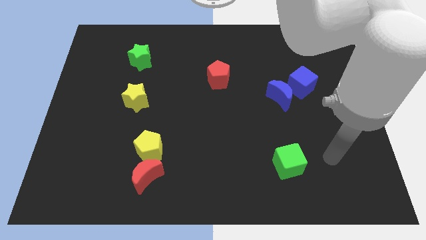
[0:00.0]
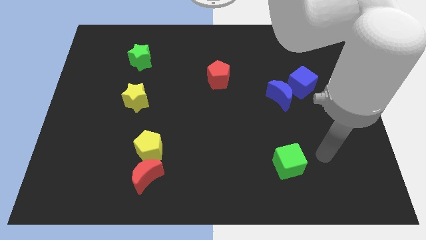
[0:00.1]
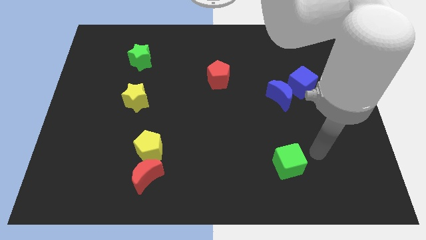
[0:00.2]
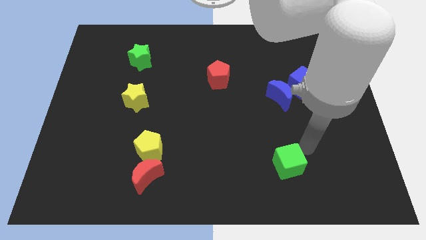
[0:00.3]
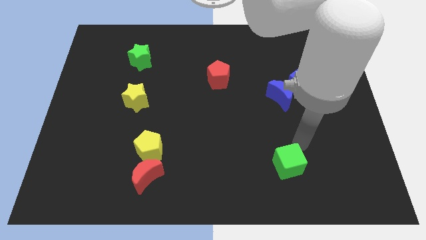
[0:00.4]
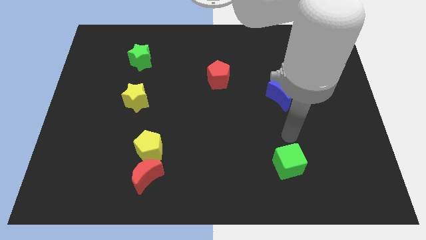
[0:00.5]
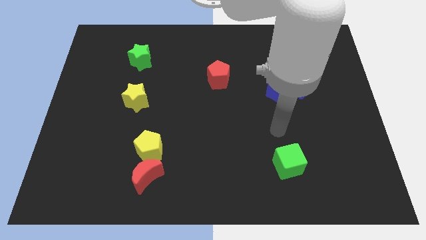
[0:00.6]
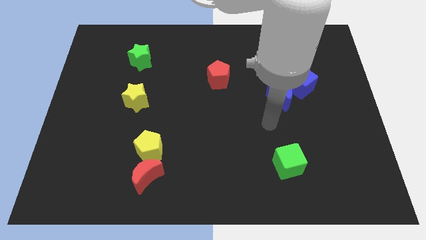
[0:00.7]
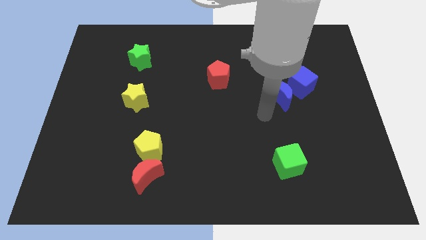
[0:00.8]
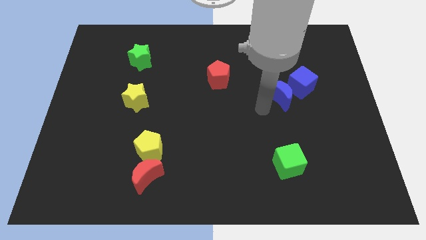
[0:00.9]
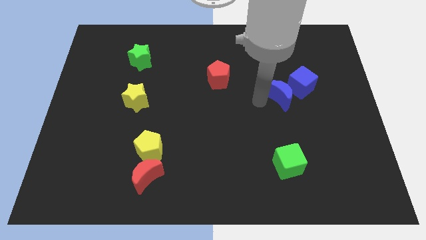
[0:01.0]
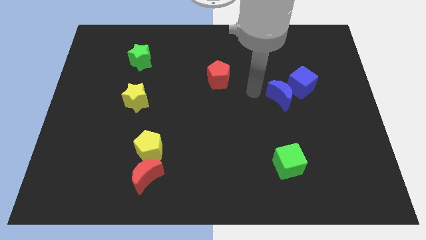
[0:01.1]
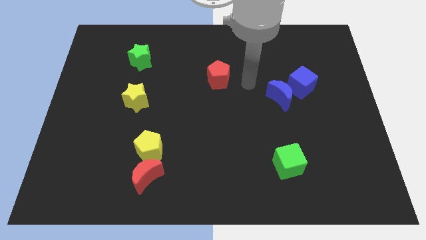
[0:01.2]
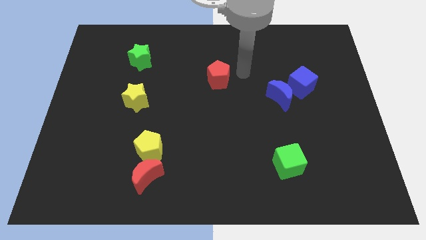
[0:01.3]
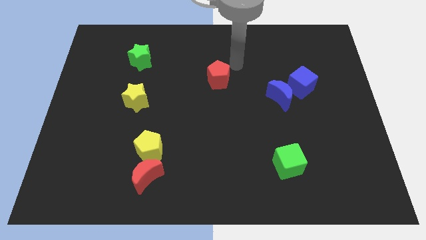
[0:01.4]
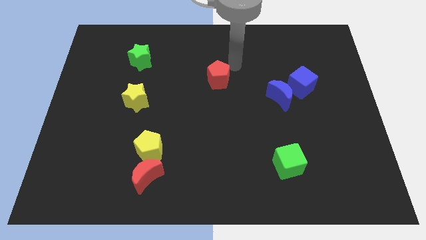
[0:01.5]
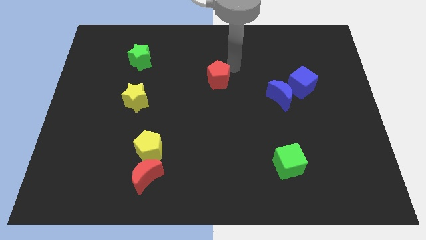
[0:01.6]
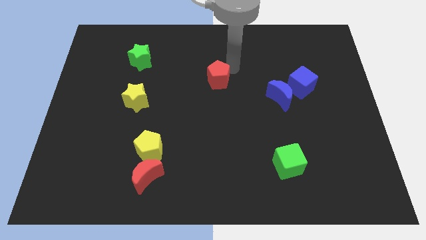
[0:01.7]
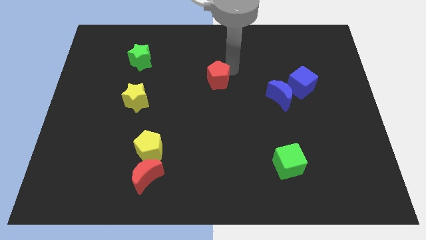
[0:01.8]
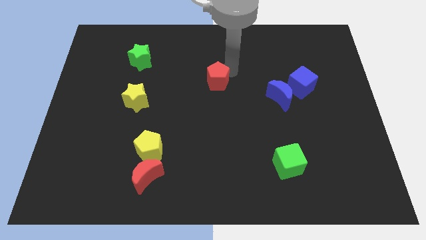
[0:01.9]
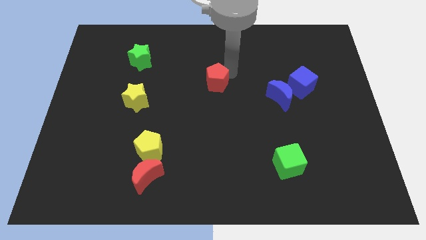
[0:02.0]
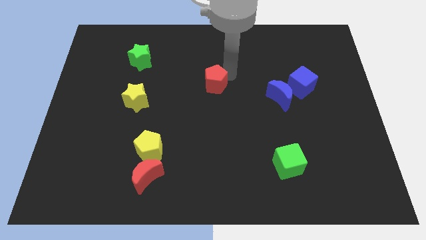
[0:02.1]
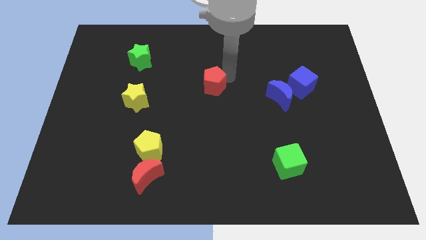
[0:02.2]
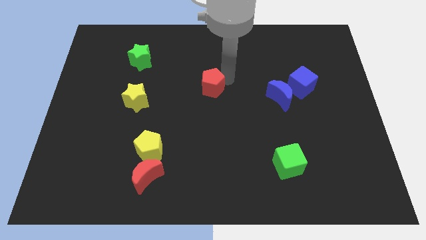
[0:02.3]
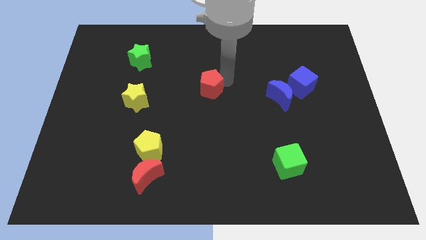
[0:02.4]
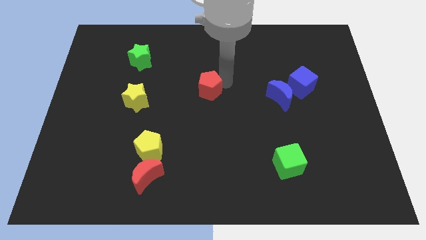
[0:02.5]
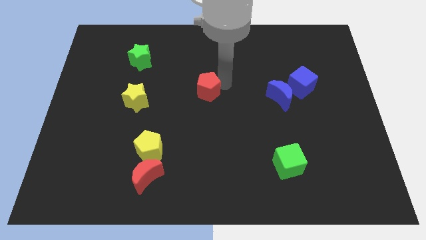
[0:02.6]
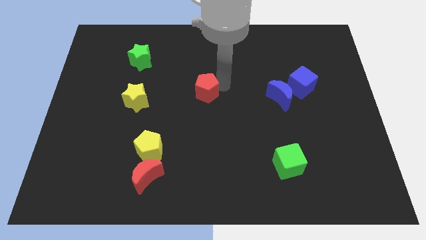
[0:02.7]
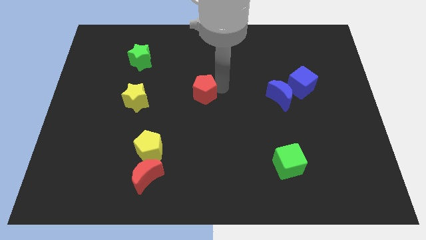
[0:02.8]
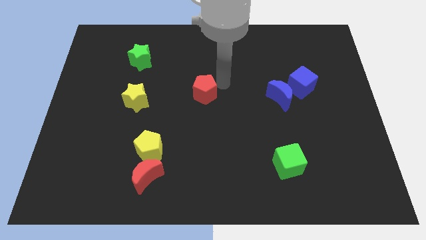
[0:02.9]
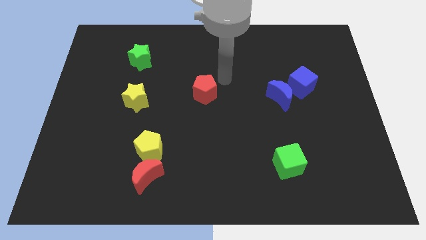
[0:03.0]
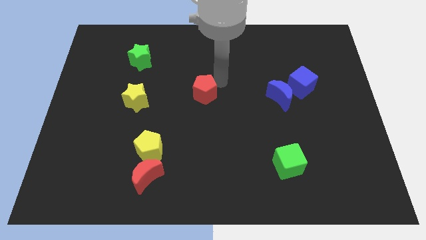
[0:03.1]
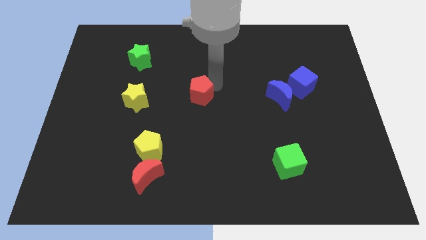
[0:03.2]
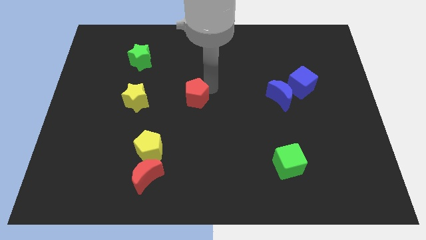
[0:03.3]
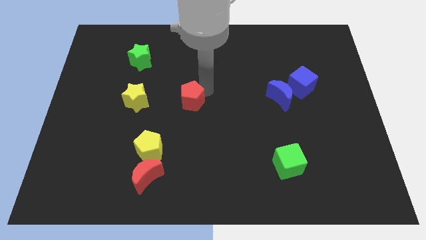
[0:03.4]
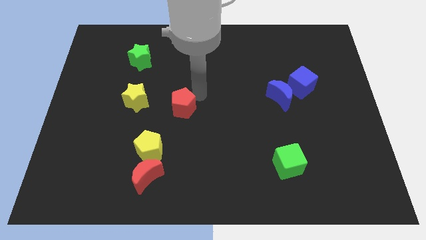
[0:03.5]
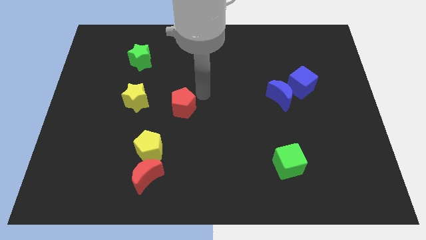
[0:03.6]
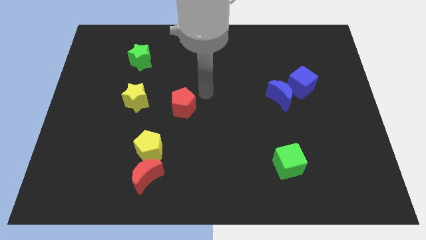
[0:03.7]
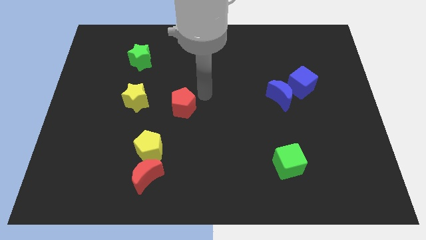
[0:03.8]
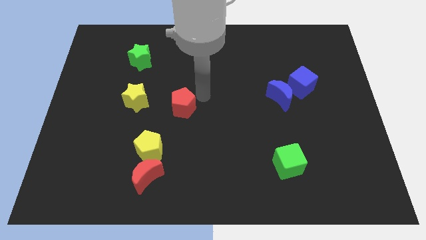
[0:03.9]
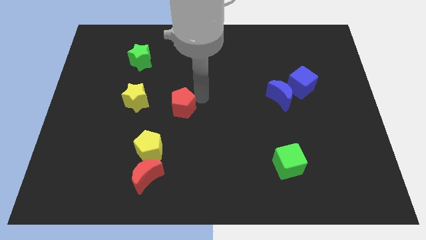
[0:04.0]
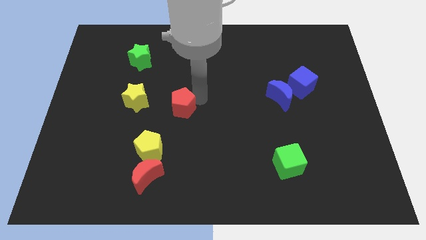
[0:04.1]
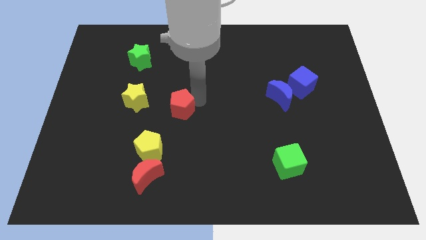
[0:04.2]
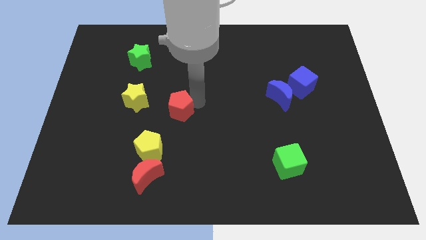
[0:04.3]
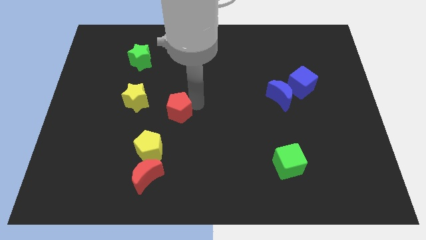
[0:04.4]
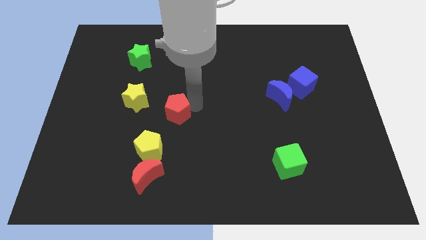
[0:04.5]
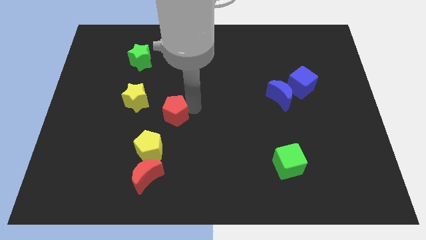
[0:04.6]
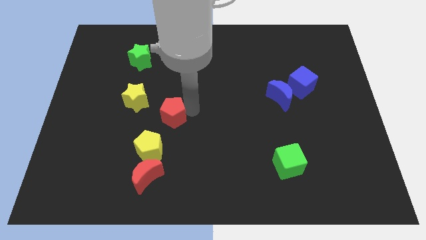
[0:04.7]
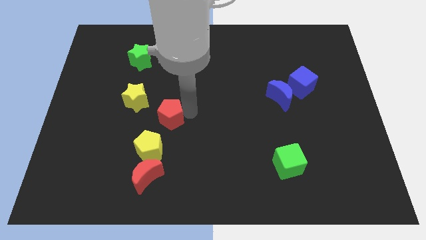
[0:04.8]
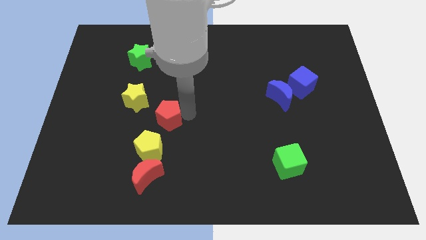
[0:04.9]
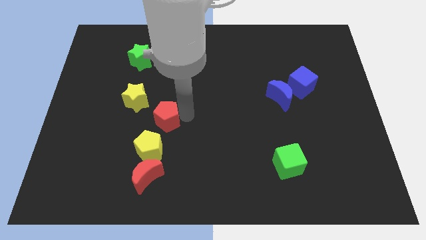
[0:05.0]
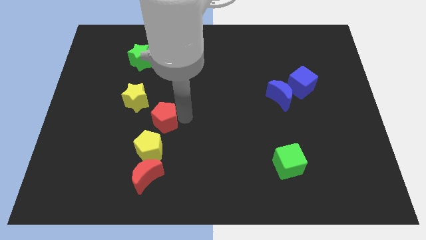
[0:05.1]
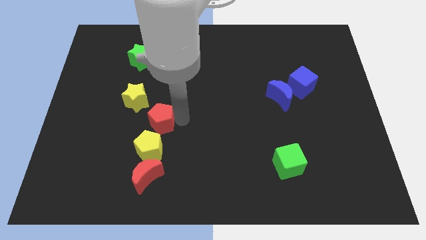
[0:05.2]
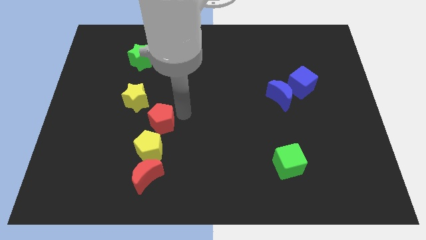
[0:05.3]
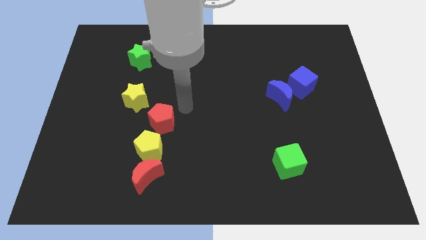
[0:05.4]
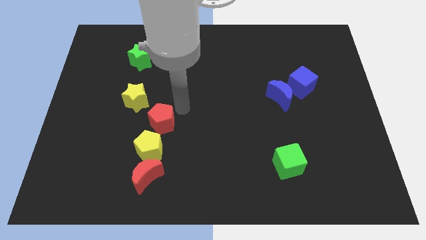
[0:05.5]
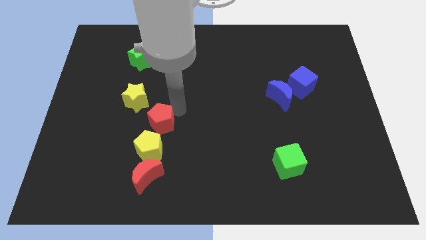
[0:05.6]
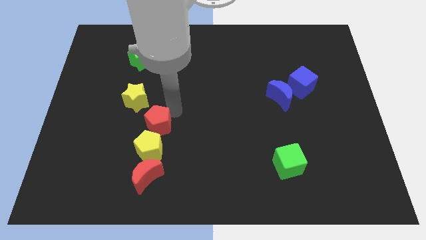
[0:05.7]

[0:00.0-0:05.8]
slide the red pentagon downwards and left

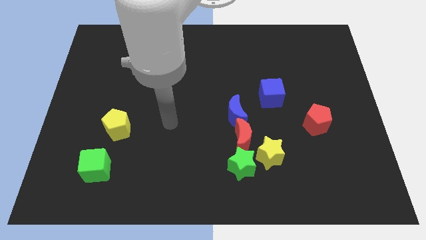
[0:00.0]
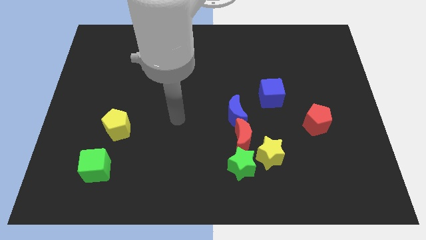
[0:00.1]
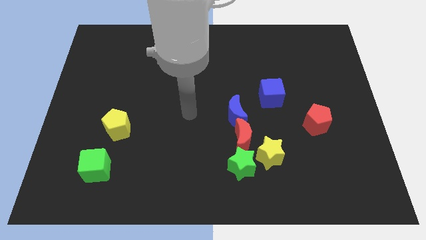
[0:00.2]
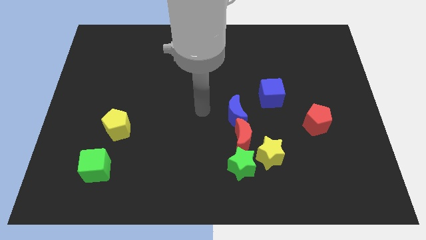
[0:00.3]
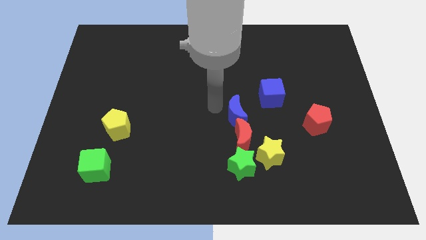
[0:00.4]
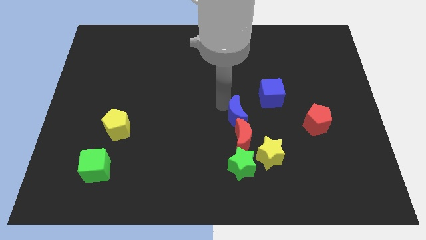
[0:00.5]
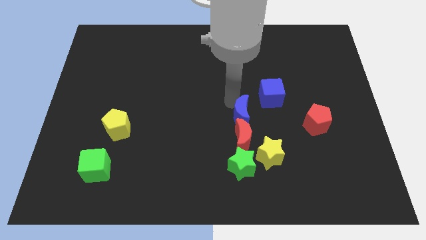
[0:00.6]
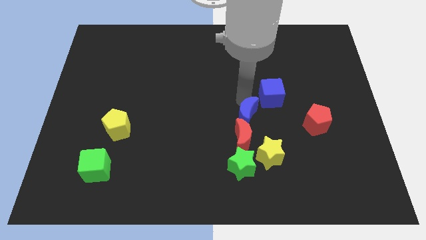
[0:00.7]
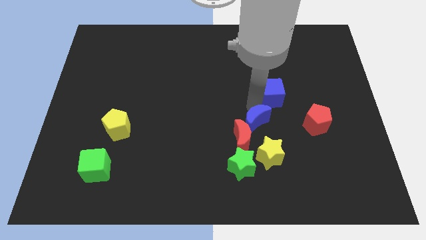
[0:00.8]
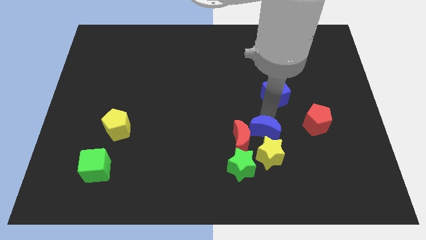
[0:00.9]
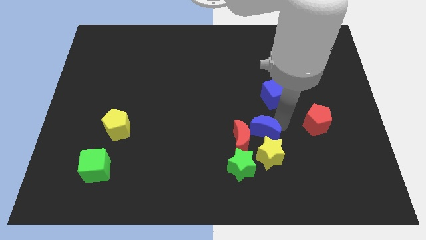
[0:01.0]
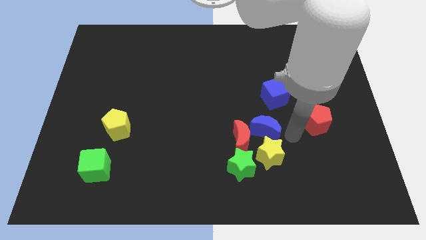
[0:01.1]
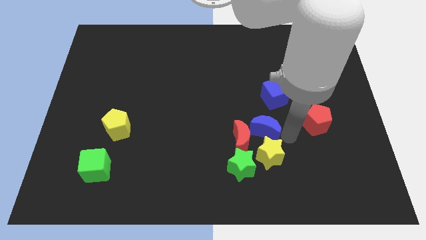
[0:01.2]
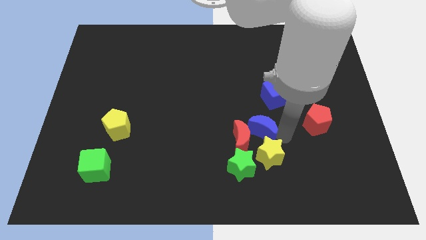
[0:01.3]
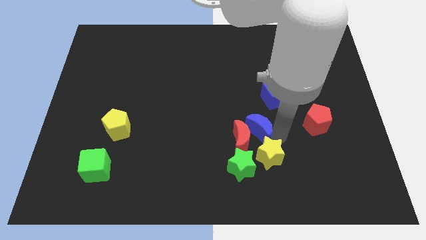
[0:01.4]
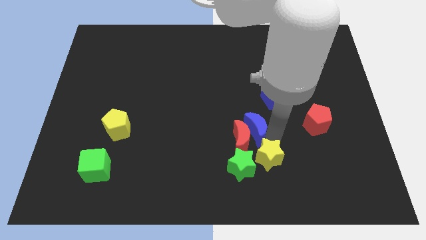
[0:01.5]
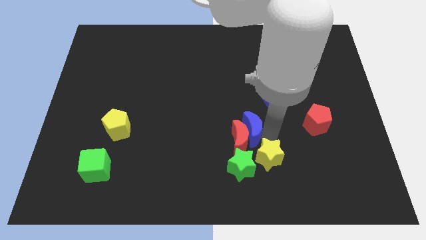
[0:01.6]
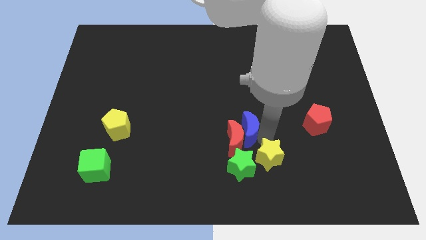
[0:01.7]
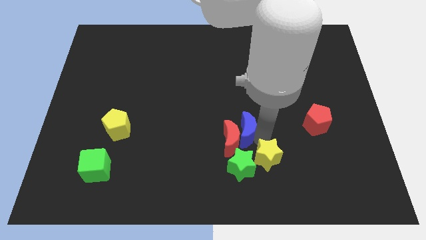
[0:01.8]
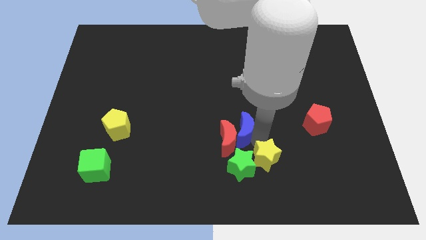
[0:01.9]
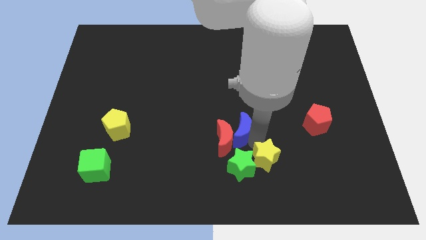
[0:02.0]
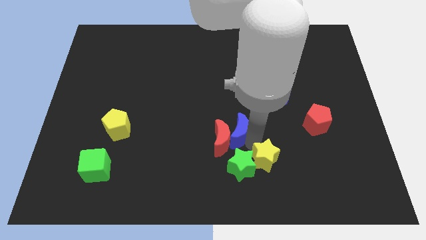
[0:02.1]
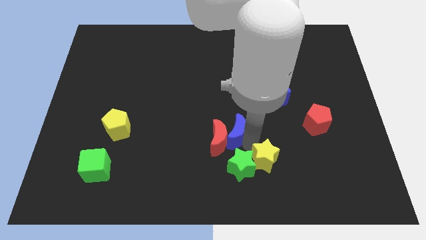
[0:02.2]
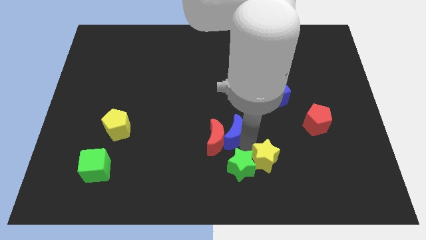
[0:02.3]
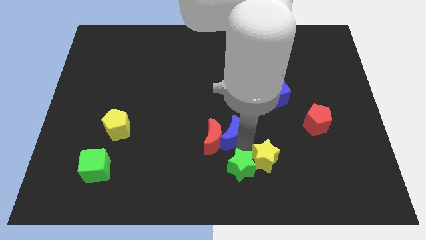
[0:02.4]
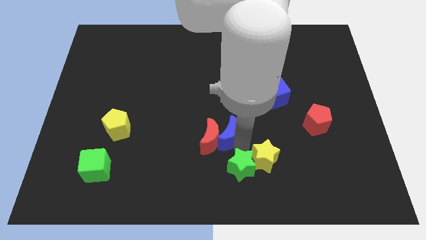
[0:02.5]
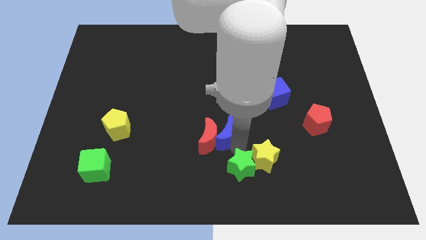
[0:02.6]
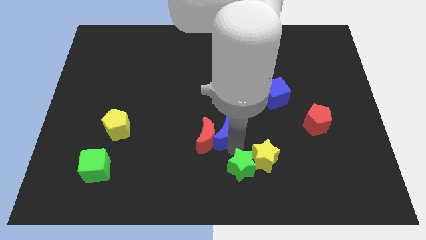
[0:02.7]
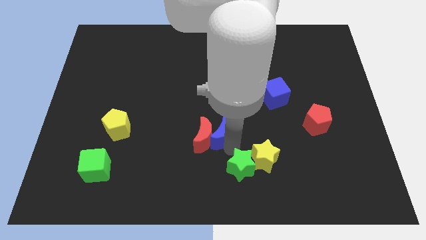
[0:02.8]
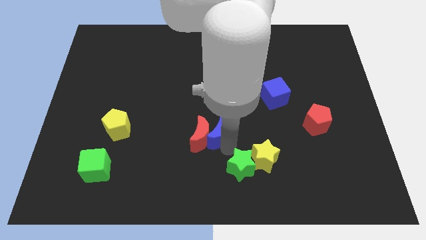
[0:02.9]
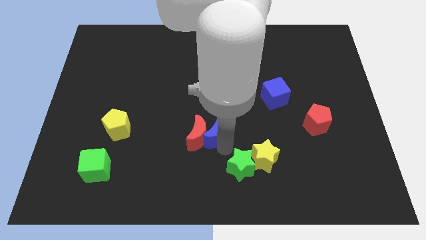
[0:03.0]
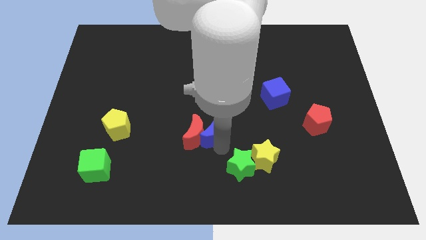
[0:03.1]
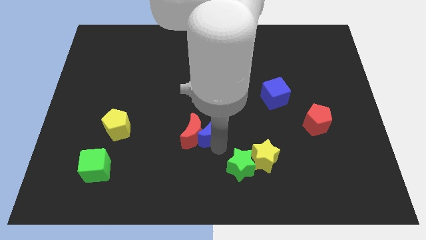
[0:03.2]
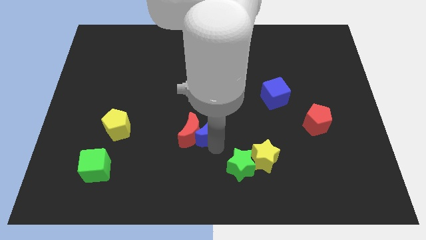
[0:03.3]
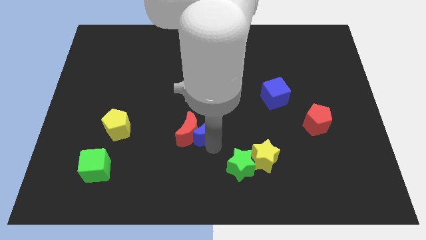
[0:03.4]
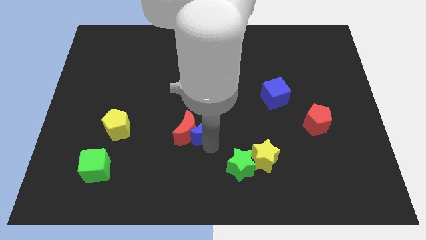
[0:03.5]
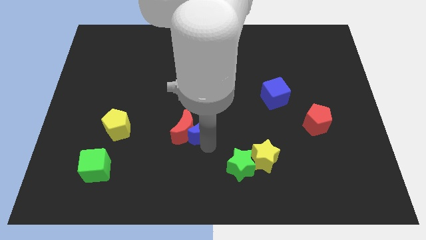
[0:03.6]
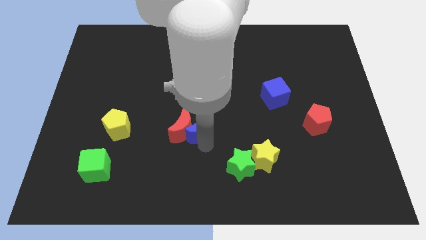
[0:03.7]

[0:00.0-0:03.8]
move the blue moon to the left a little
